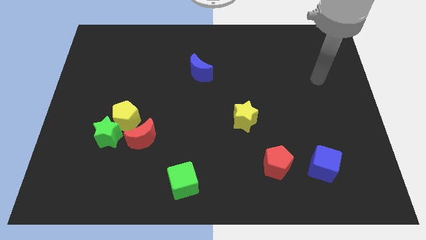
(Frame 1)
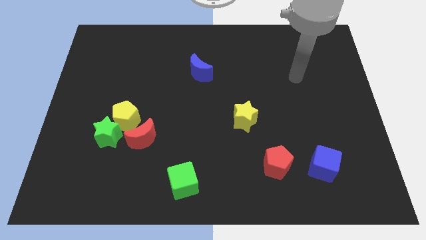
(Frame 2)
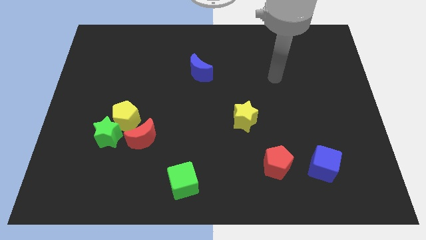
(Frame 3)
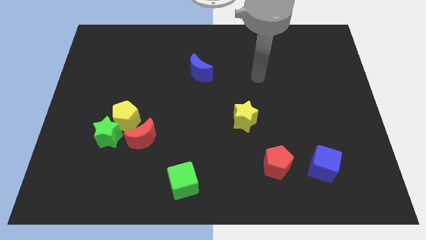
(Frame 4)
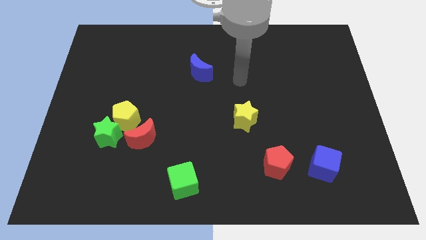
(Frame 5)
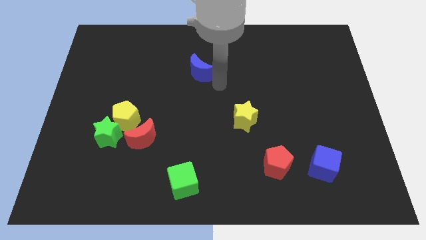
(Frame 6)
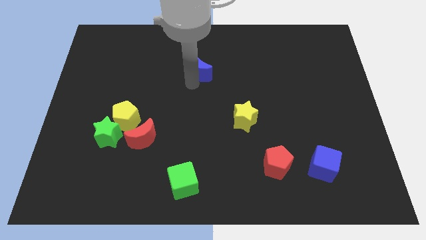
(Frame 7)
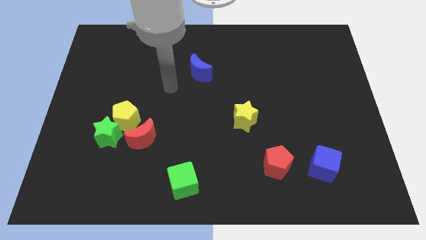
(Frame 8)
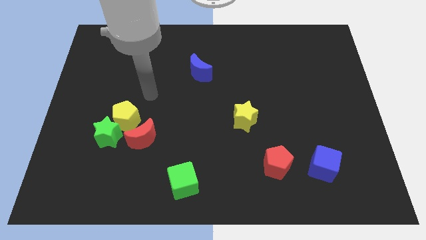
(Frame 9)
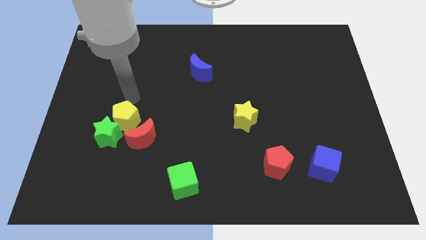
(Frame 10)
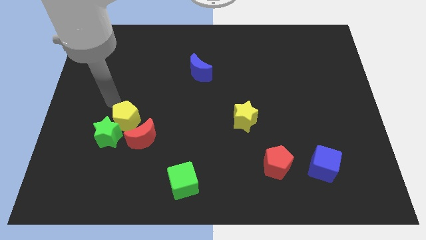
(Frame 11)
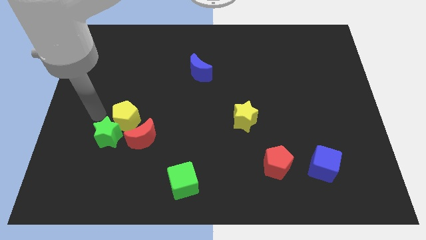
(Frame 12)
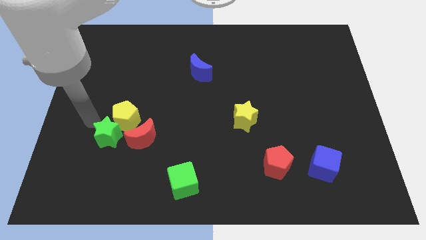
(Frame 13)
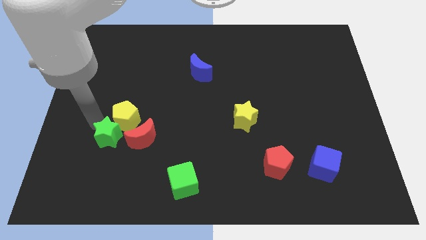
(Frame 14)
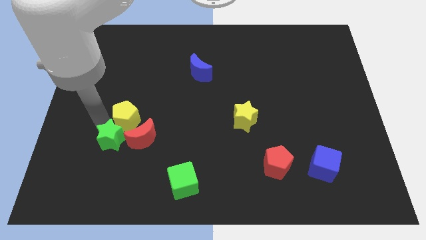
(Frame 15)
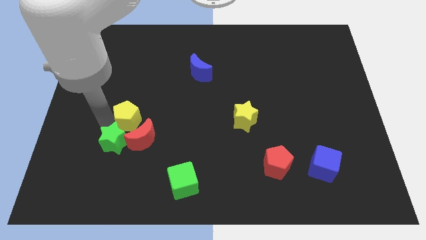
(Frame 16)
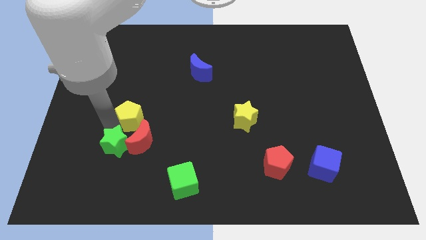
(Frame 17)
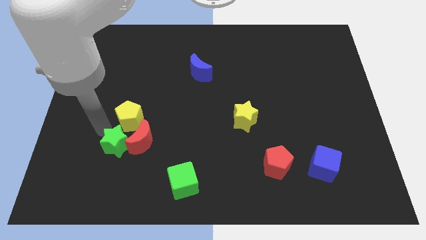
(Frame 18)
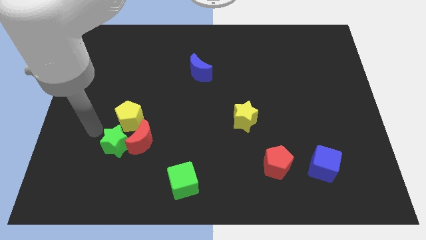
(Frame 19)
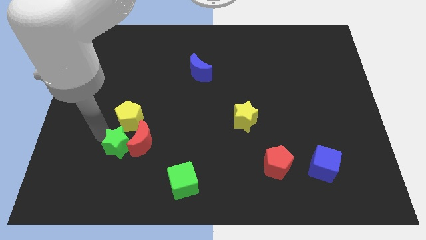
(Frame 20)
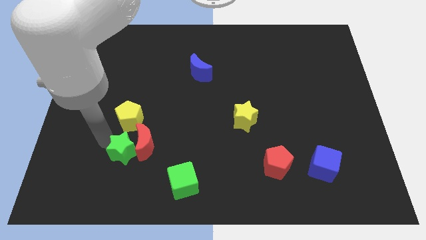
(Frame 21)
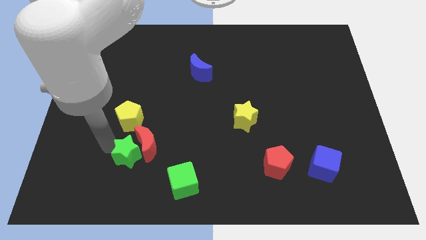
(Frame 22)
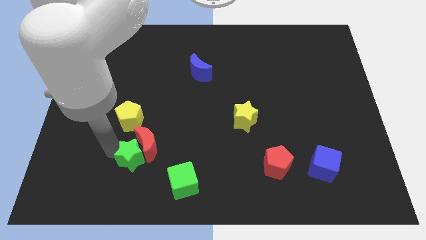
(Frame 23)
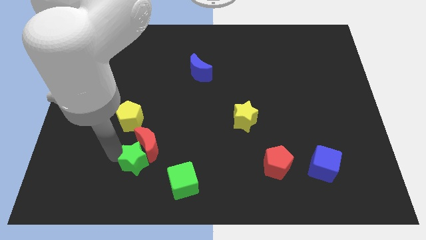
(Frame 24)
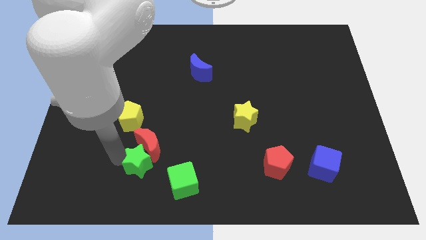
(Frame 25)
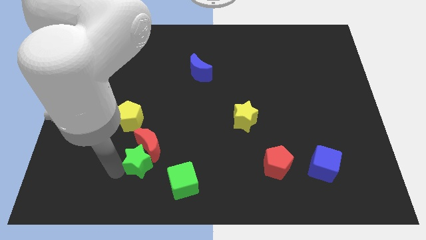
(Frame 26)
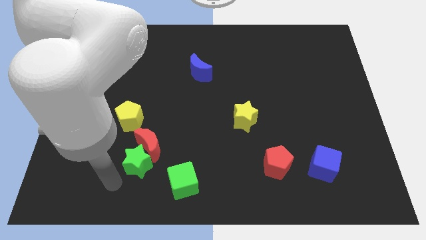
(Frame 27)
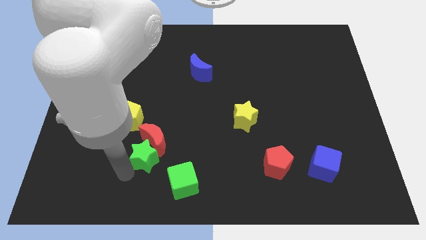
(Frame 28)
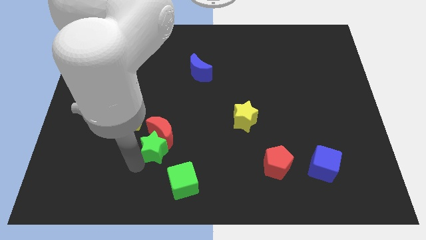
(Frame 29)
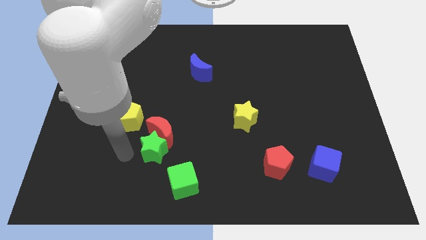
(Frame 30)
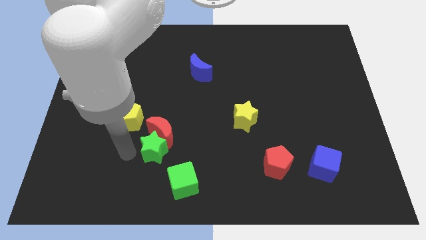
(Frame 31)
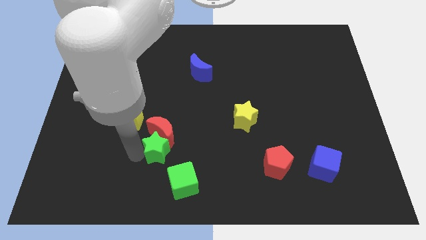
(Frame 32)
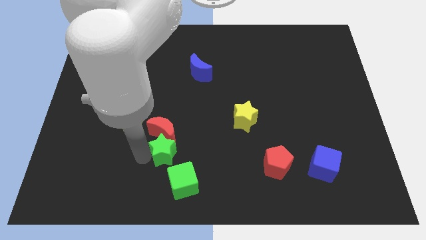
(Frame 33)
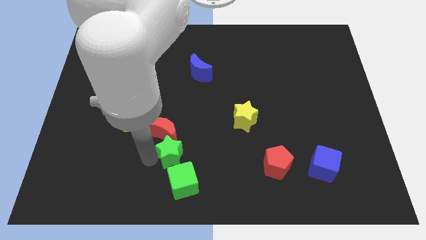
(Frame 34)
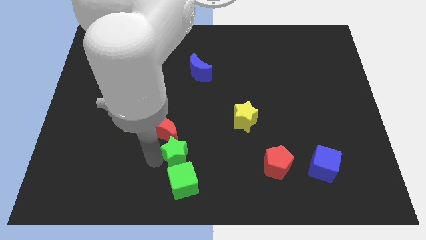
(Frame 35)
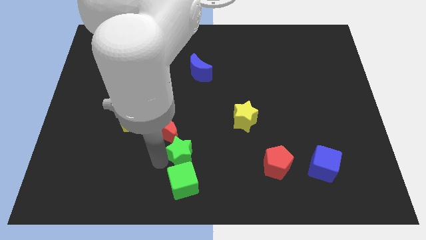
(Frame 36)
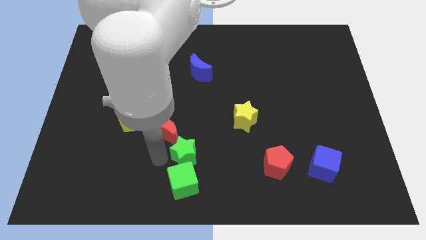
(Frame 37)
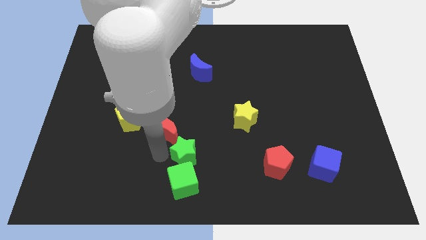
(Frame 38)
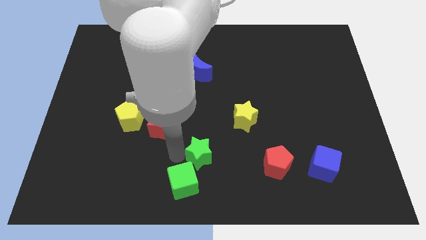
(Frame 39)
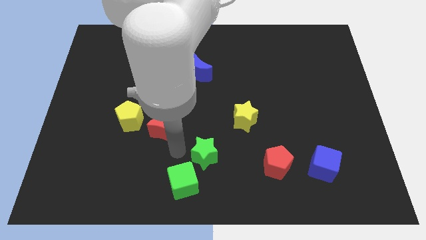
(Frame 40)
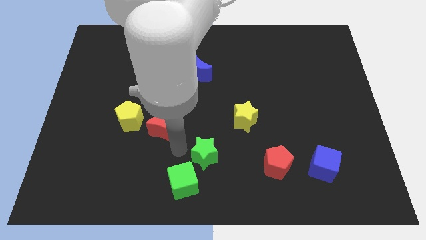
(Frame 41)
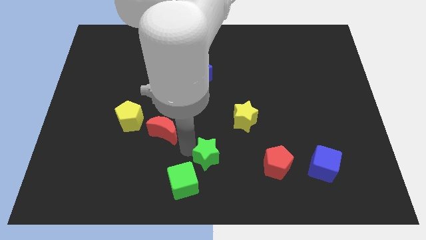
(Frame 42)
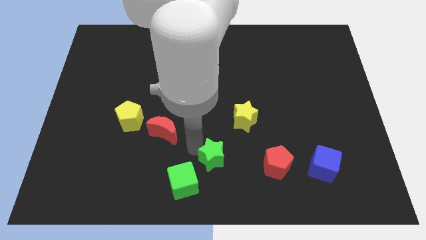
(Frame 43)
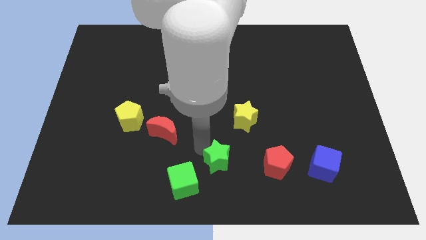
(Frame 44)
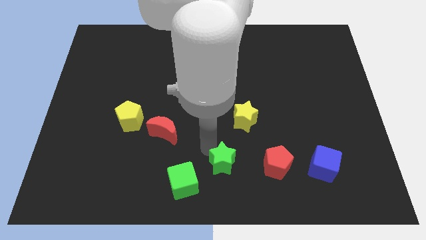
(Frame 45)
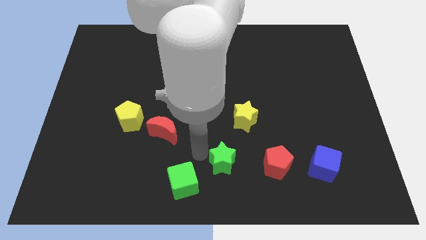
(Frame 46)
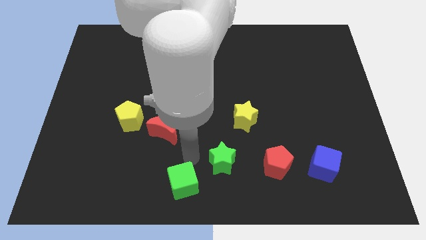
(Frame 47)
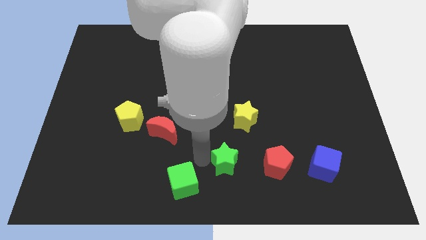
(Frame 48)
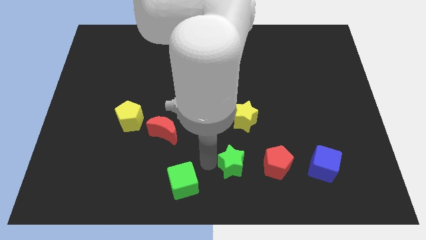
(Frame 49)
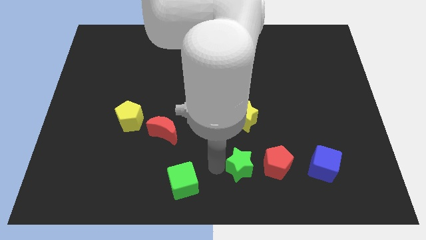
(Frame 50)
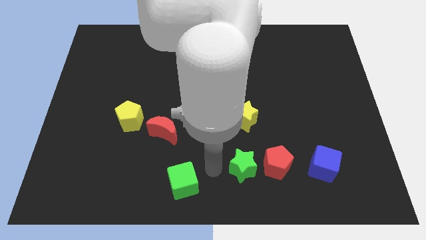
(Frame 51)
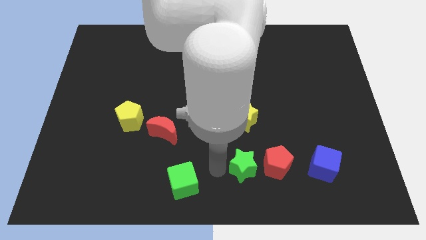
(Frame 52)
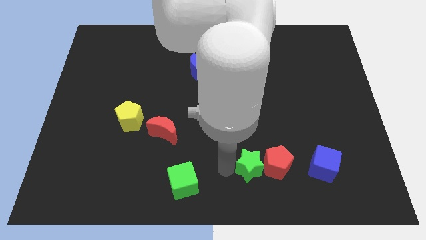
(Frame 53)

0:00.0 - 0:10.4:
move the green star just left of the blue cube

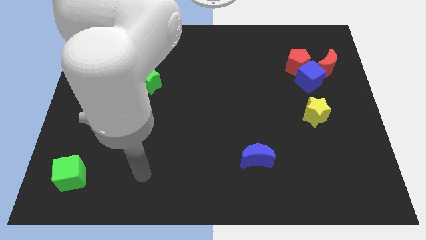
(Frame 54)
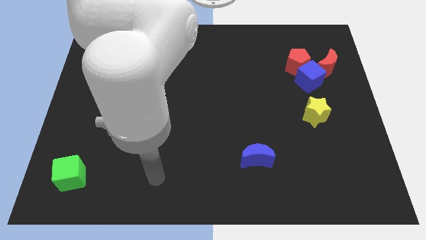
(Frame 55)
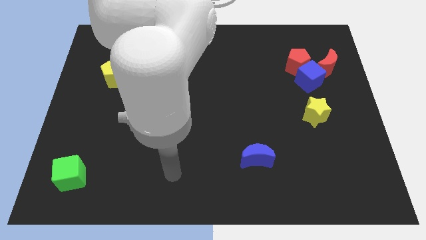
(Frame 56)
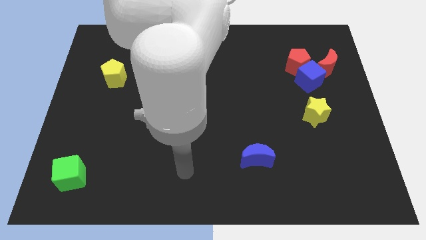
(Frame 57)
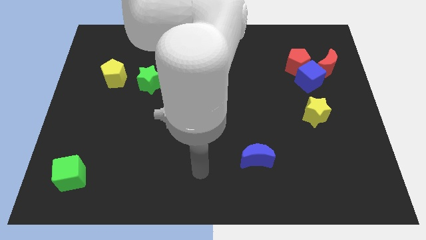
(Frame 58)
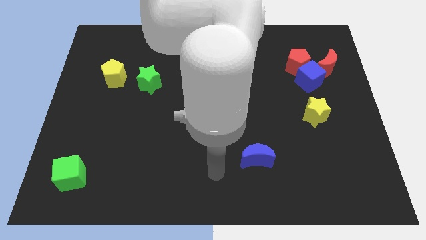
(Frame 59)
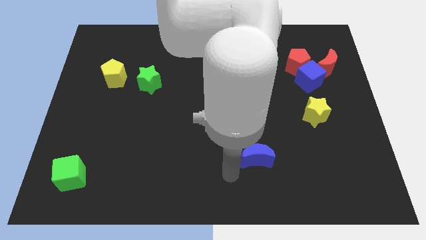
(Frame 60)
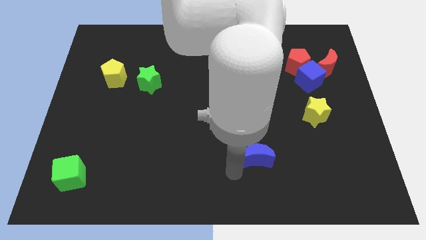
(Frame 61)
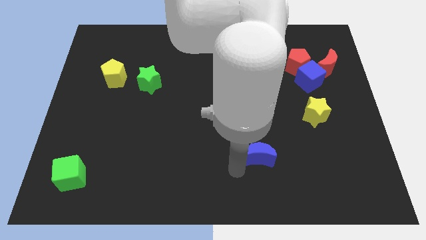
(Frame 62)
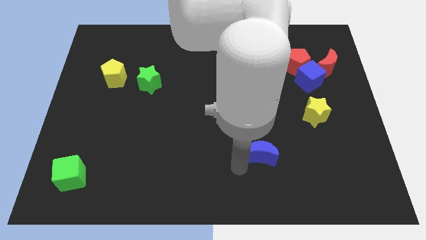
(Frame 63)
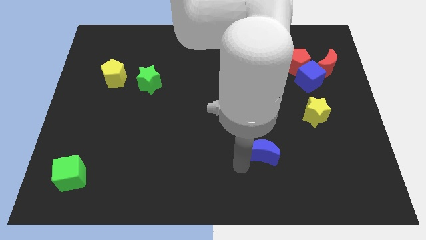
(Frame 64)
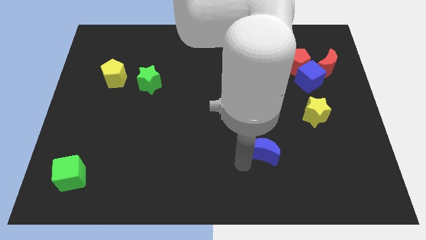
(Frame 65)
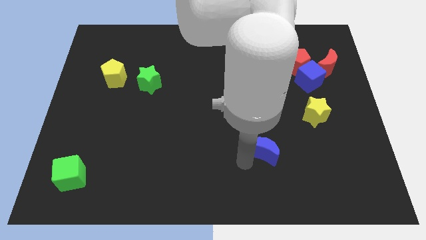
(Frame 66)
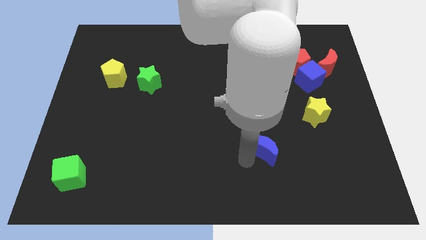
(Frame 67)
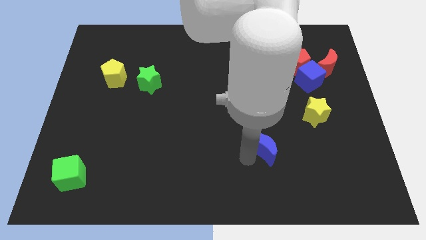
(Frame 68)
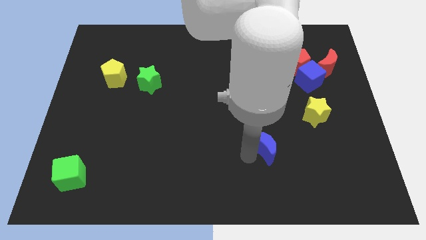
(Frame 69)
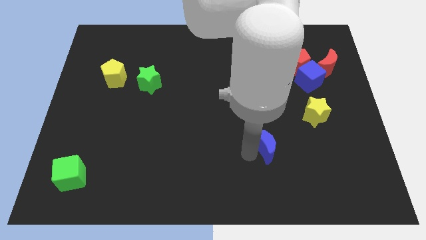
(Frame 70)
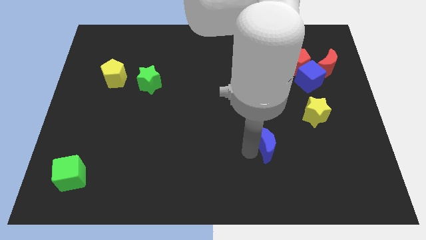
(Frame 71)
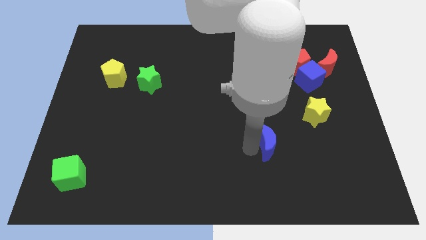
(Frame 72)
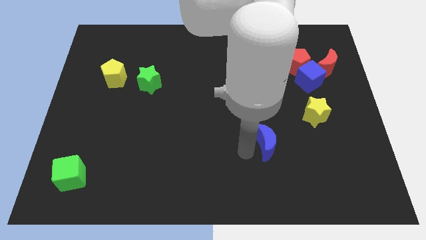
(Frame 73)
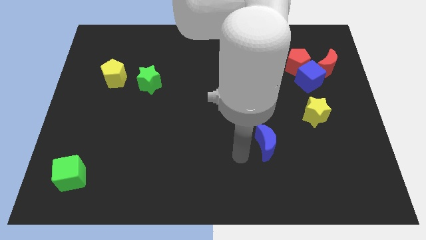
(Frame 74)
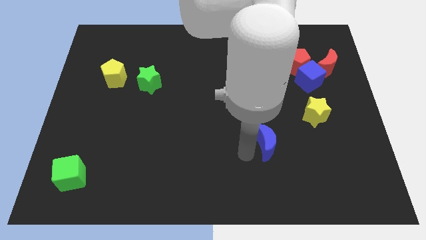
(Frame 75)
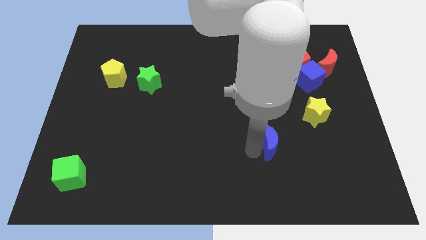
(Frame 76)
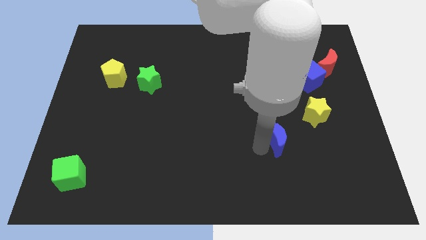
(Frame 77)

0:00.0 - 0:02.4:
push the blue moon to the bottom left of the yellow star

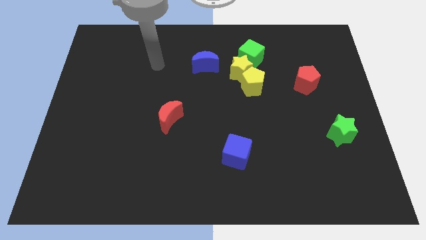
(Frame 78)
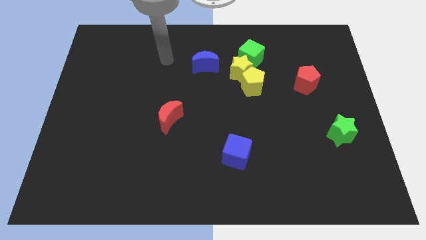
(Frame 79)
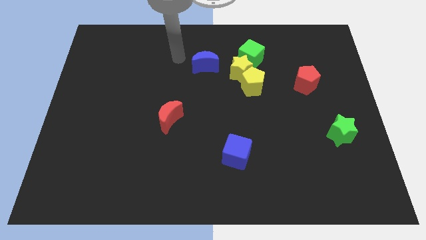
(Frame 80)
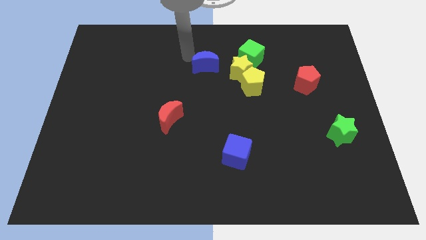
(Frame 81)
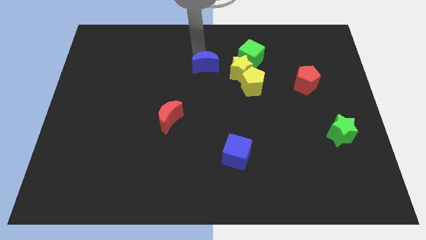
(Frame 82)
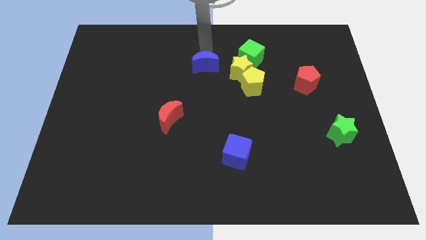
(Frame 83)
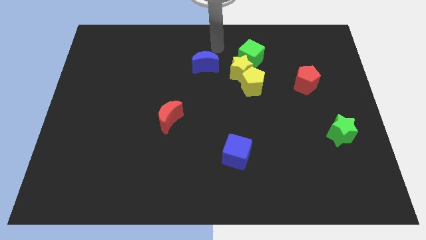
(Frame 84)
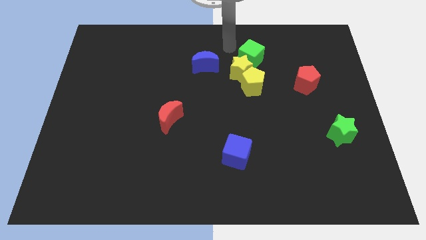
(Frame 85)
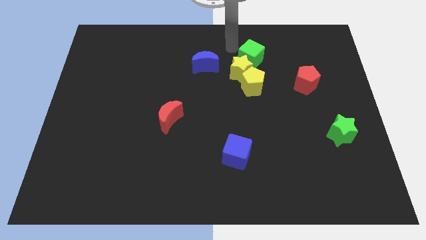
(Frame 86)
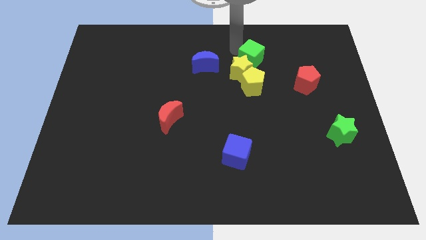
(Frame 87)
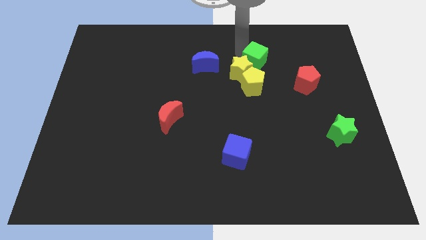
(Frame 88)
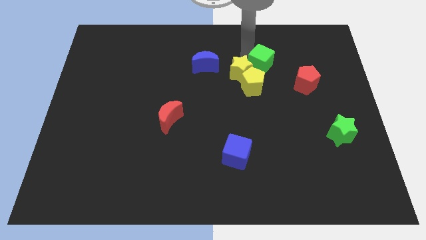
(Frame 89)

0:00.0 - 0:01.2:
put the green cube to the top right of the yellow pentagon
